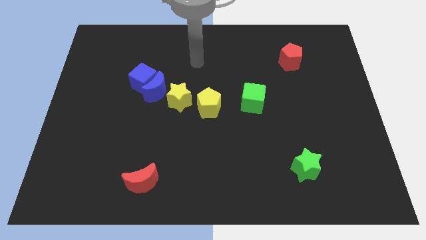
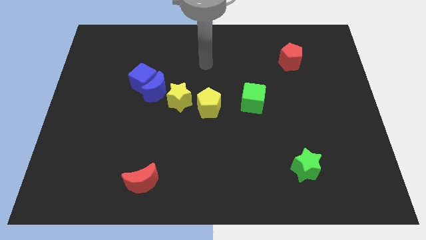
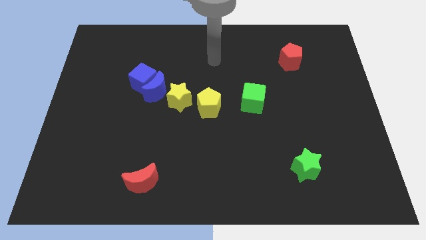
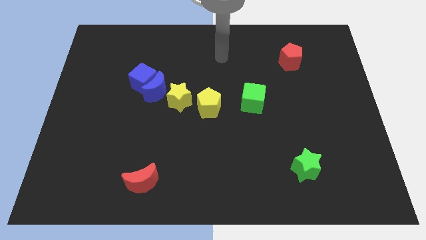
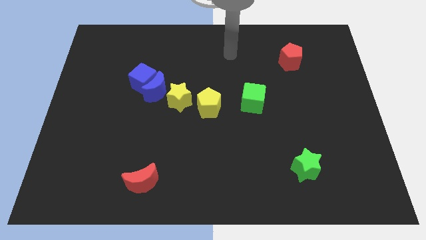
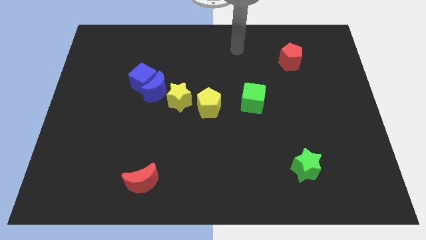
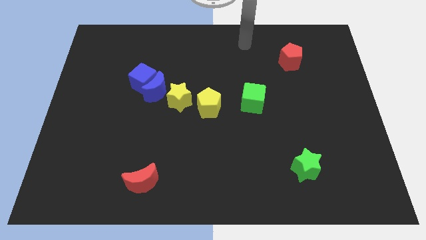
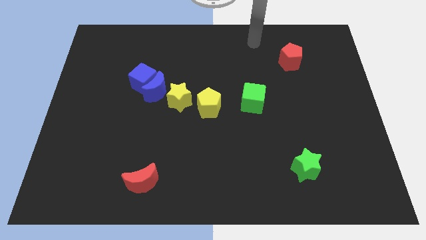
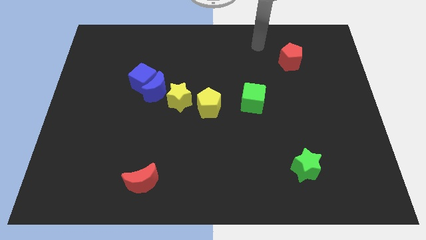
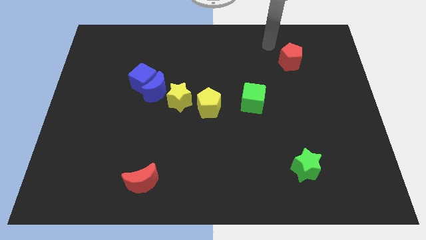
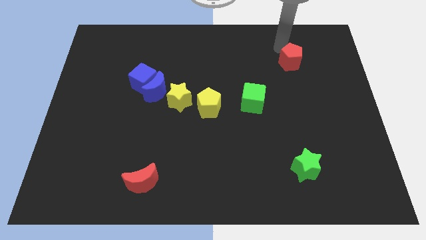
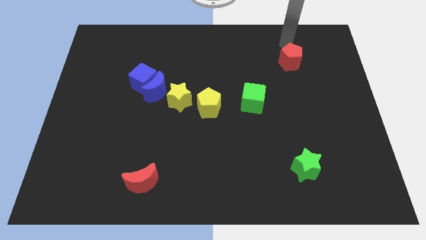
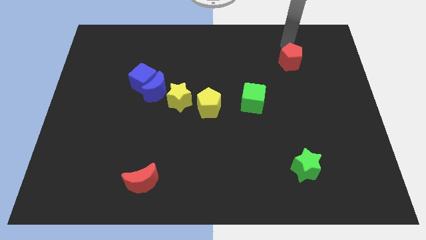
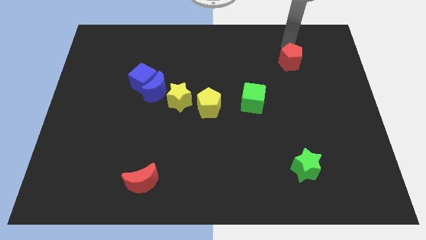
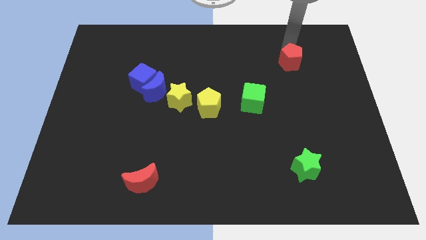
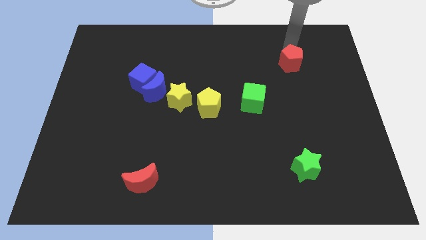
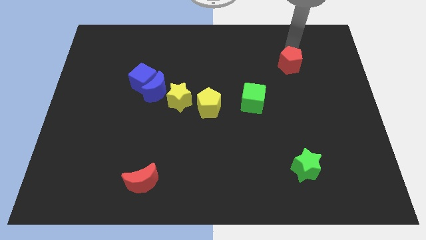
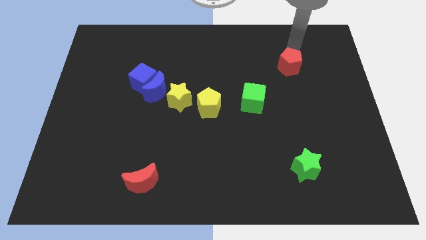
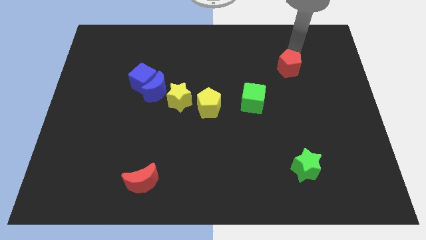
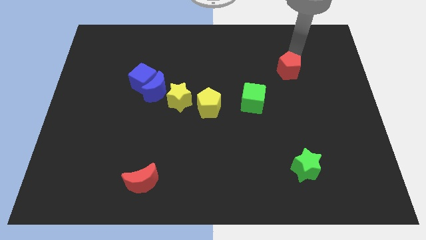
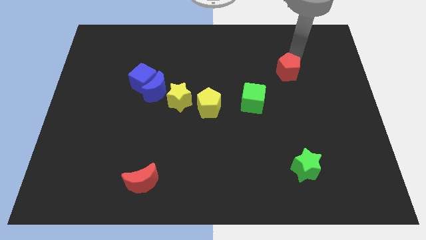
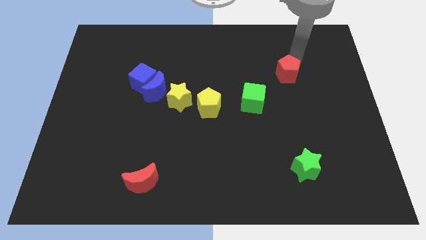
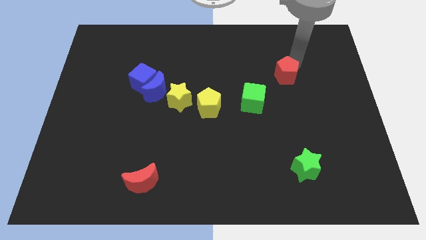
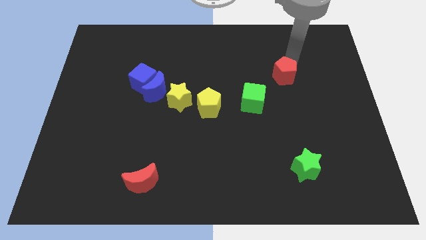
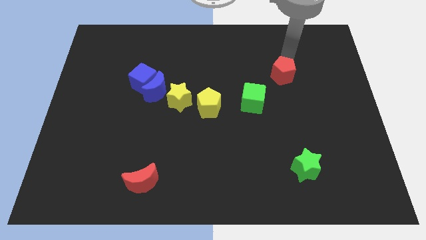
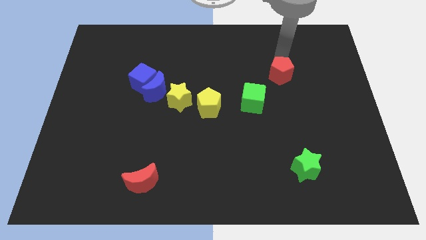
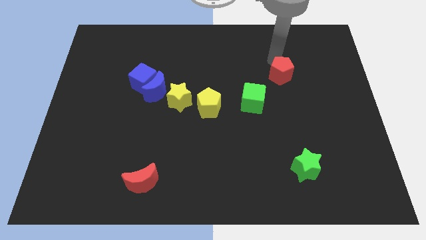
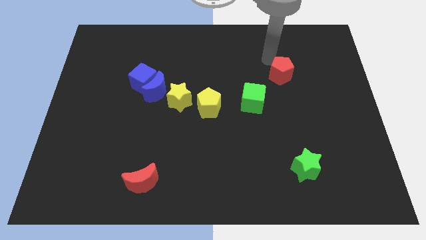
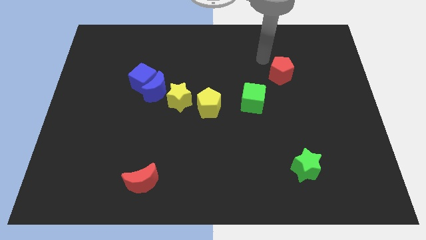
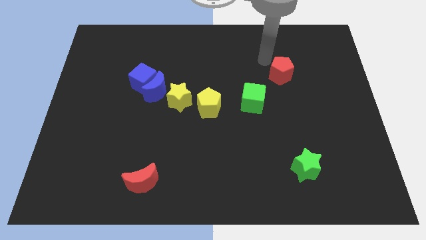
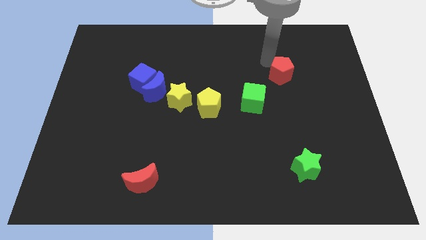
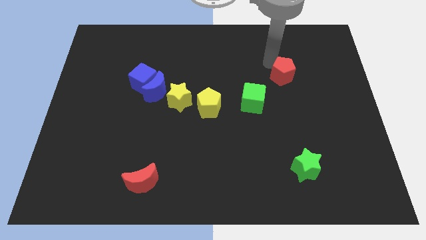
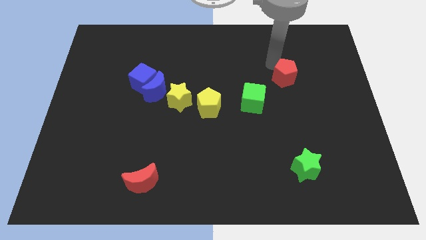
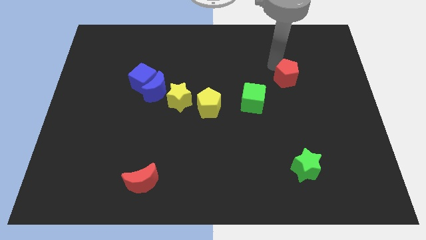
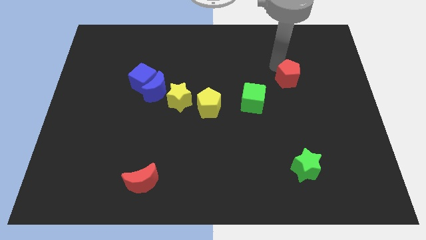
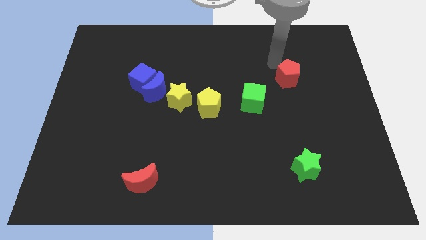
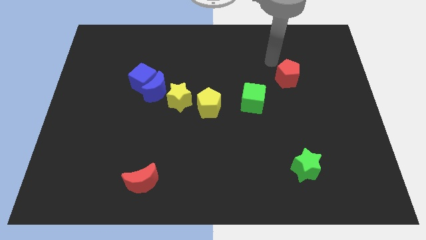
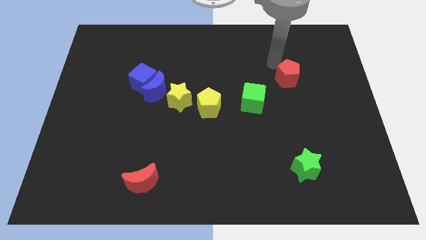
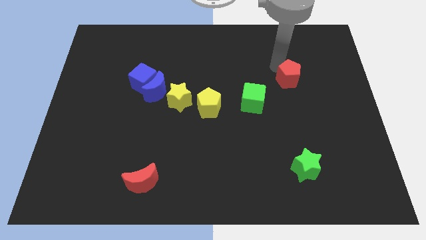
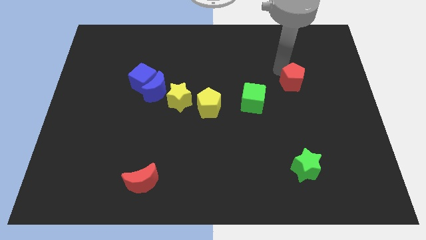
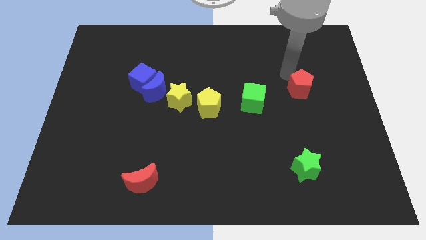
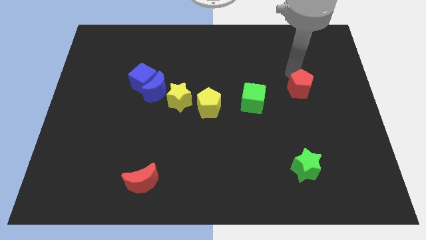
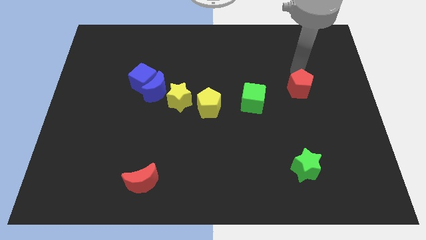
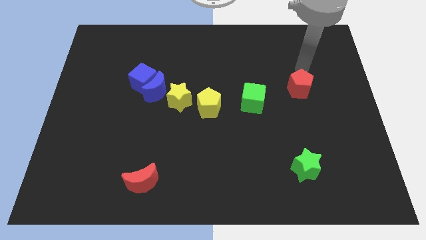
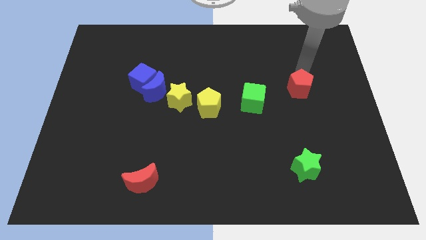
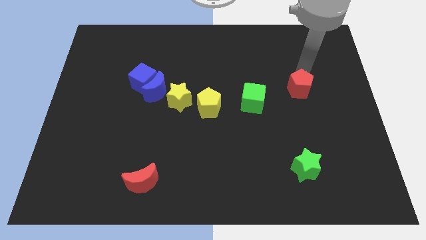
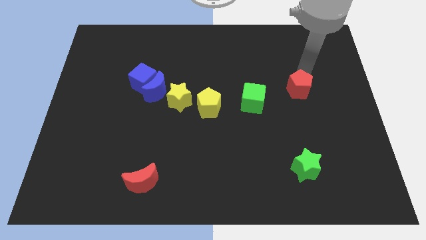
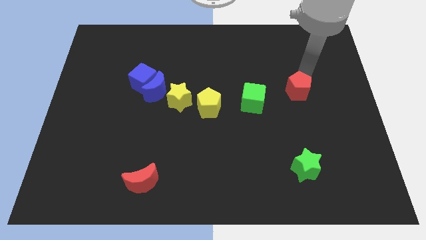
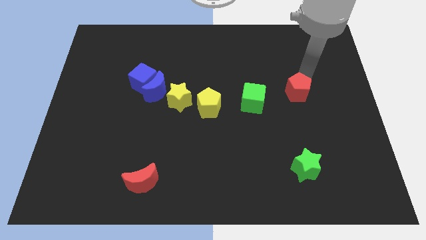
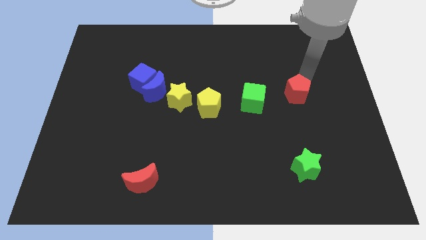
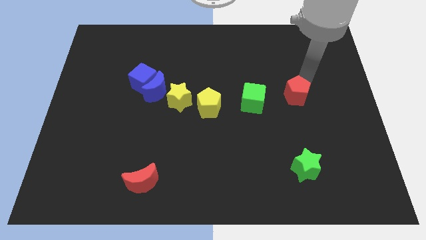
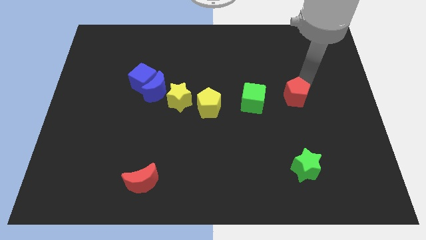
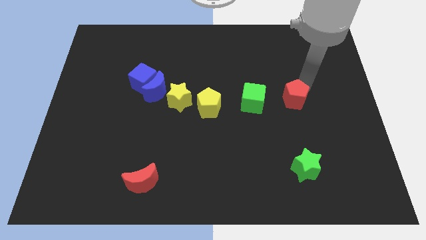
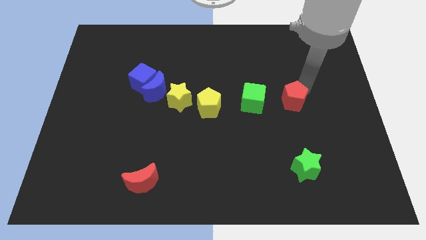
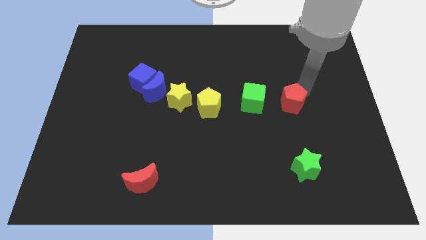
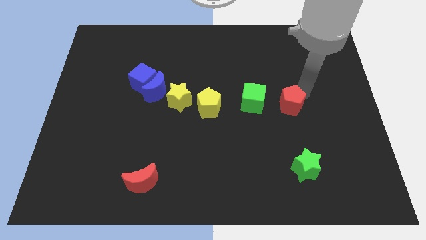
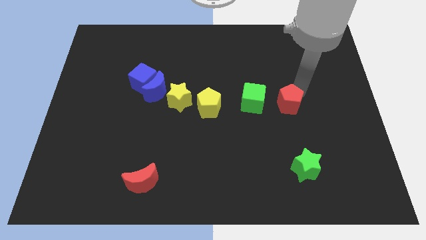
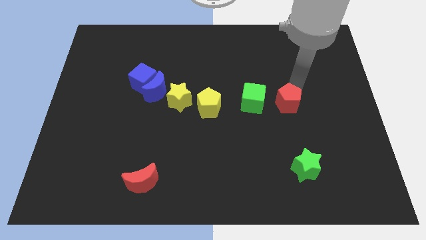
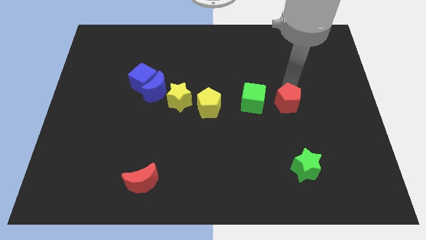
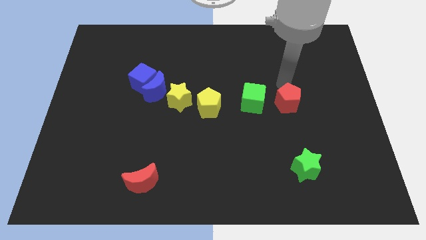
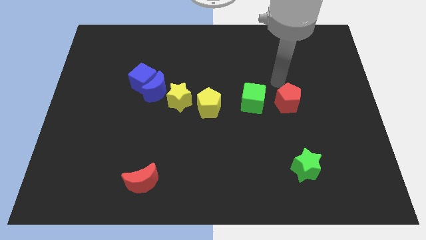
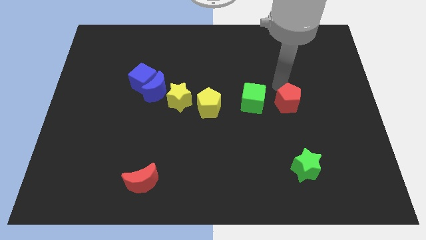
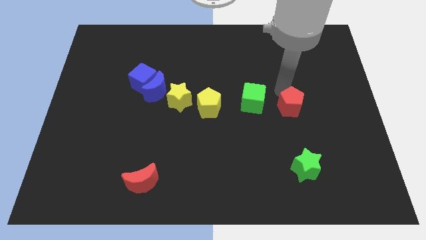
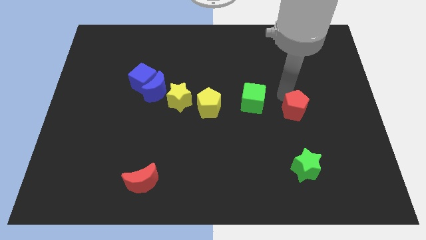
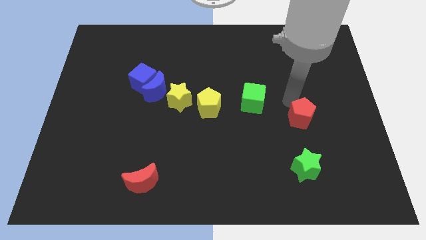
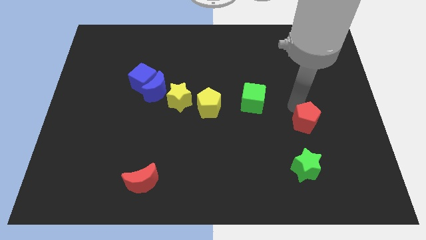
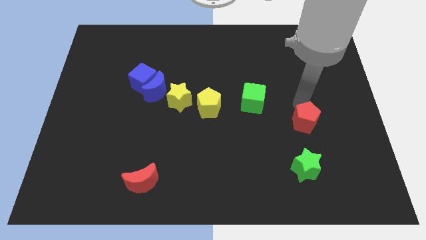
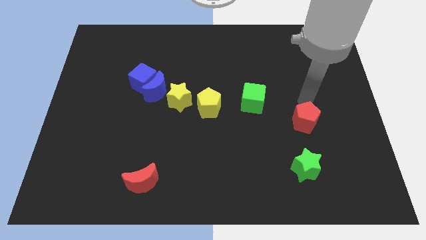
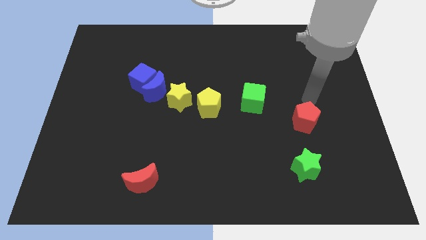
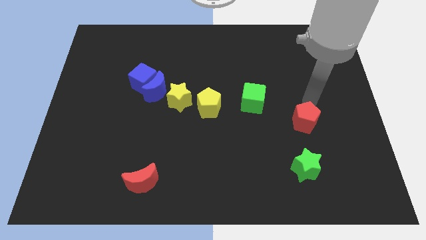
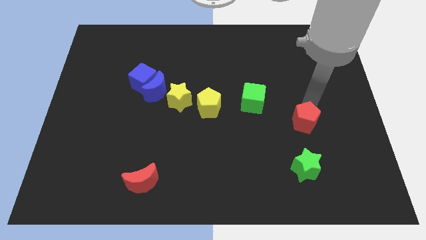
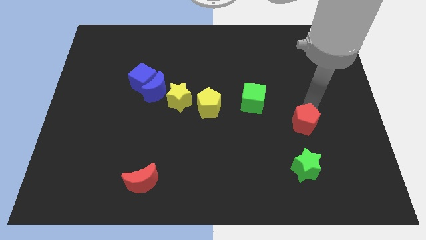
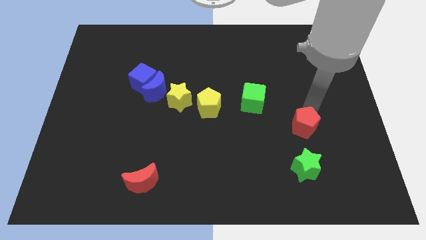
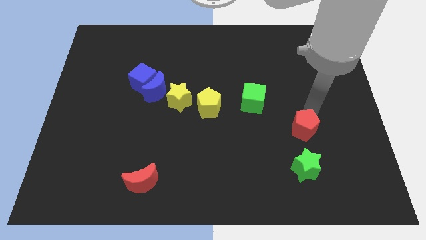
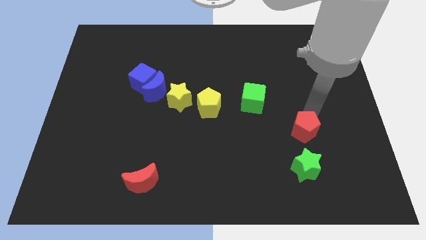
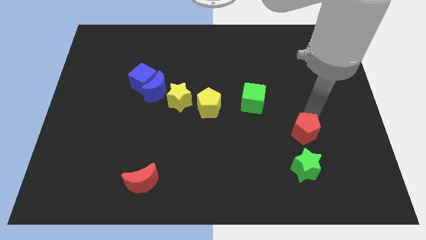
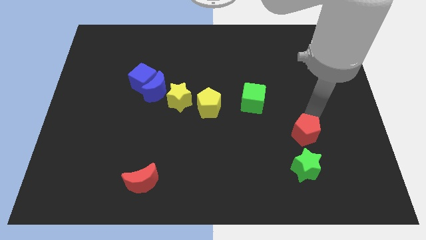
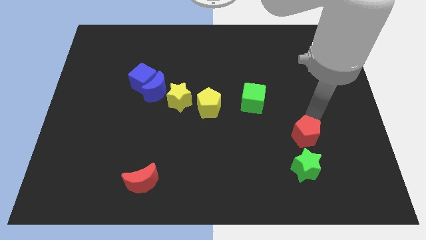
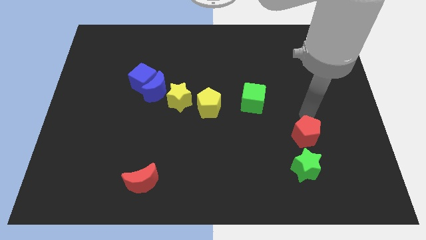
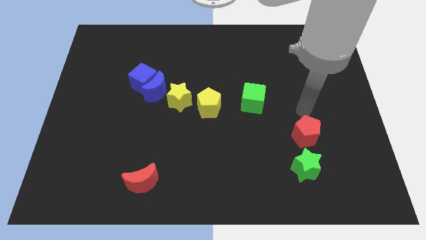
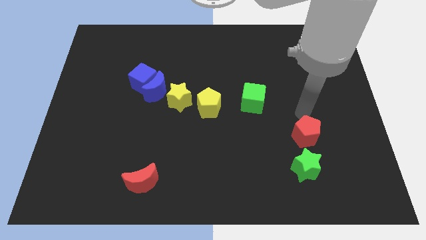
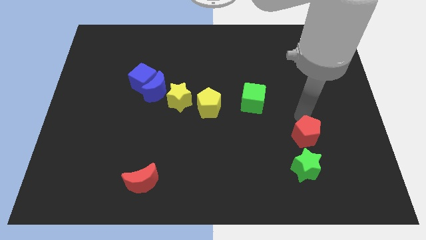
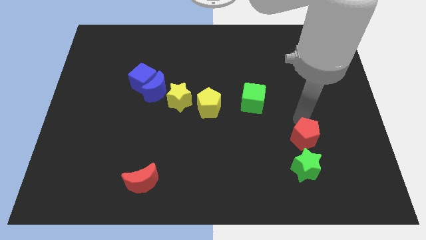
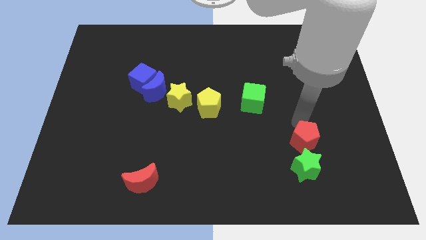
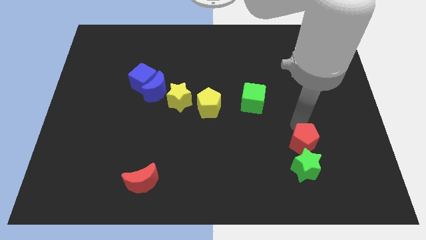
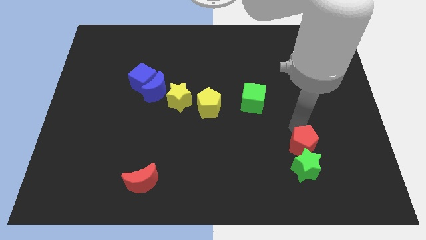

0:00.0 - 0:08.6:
push the red pentagon to the green star
